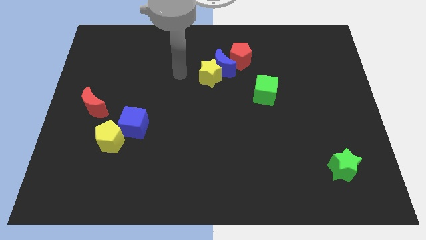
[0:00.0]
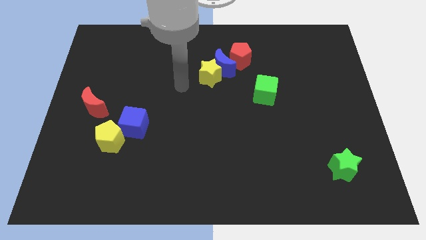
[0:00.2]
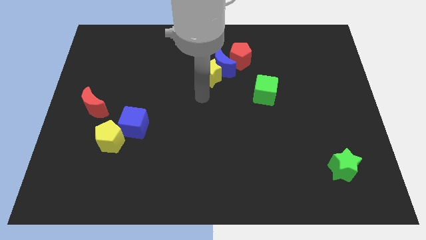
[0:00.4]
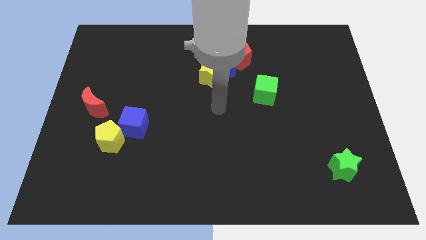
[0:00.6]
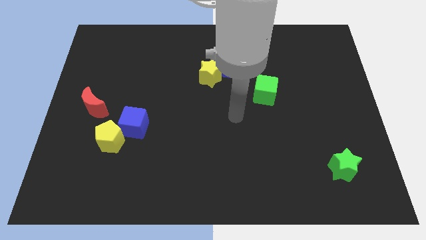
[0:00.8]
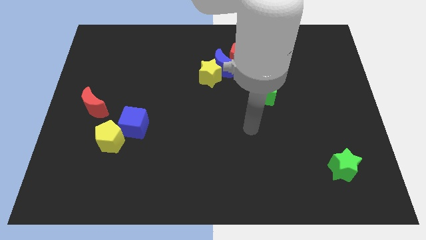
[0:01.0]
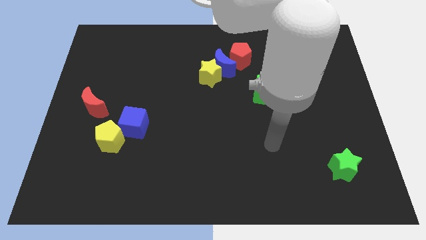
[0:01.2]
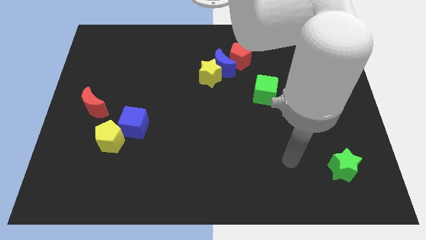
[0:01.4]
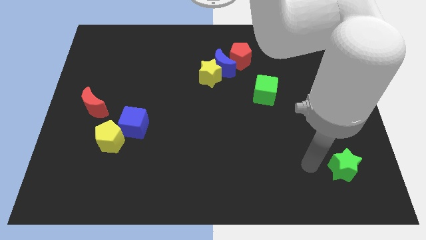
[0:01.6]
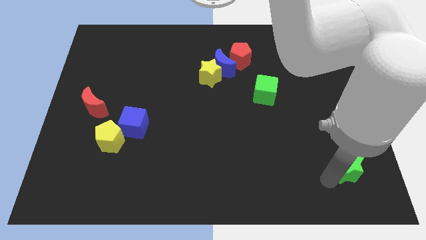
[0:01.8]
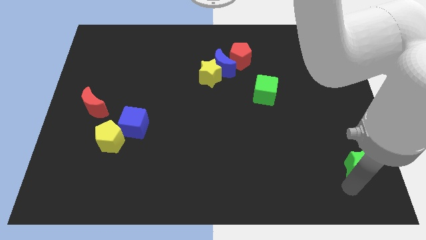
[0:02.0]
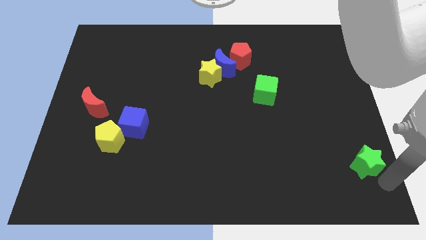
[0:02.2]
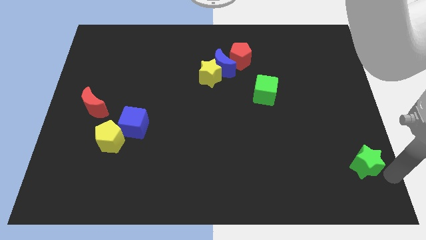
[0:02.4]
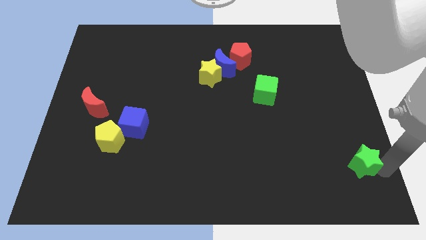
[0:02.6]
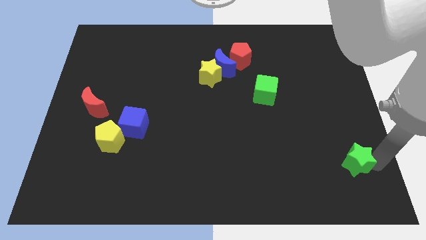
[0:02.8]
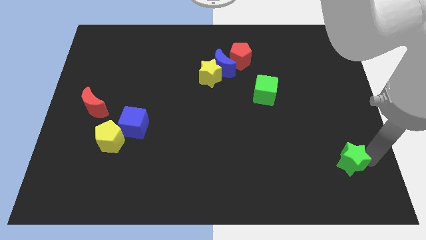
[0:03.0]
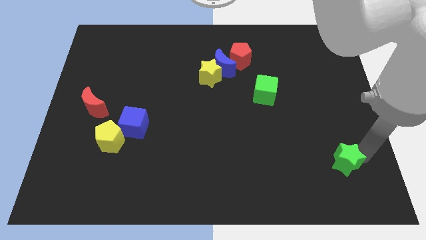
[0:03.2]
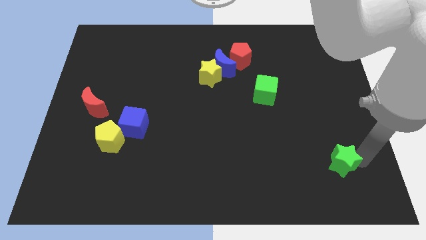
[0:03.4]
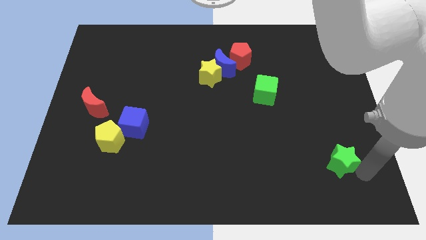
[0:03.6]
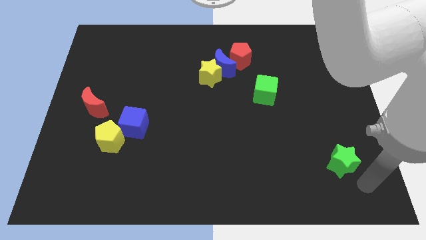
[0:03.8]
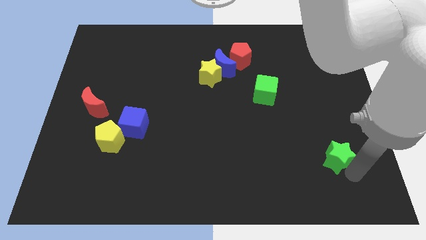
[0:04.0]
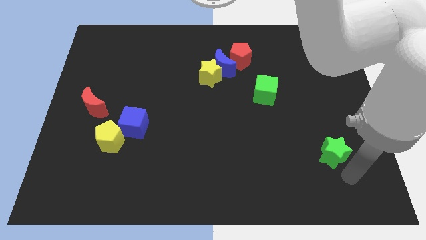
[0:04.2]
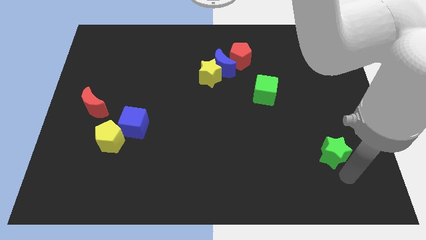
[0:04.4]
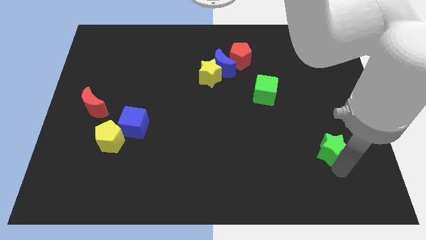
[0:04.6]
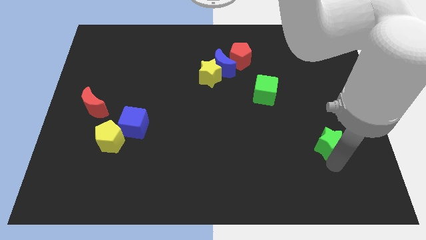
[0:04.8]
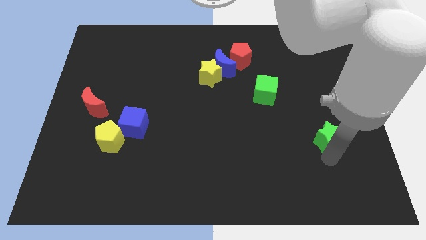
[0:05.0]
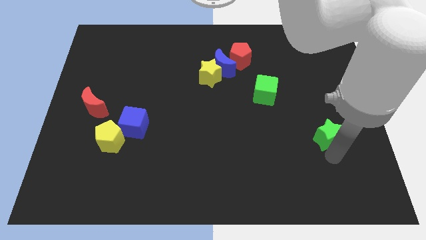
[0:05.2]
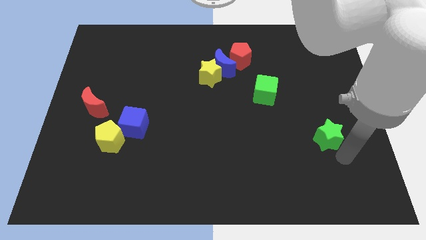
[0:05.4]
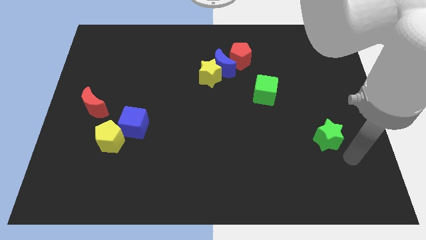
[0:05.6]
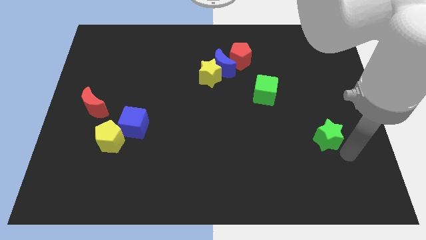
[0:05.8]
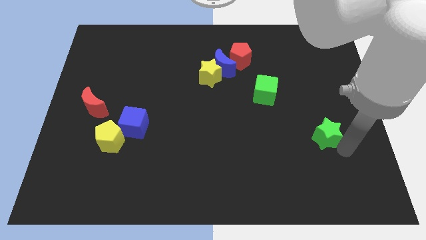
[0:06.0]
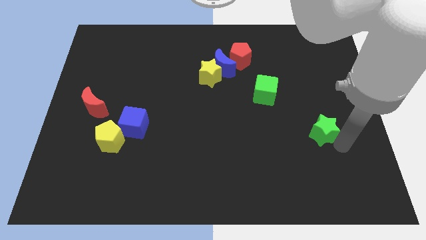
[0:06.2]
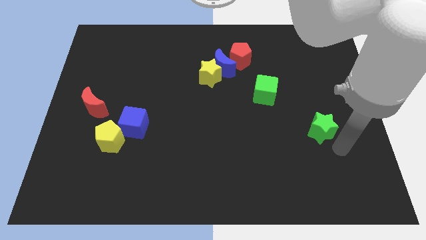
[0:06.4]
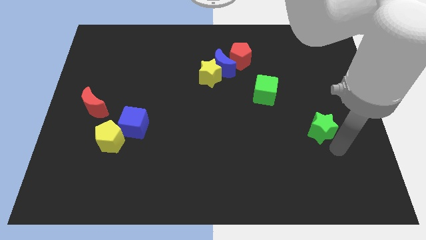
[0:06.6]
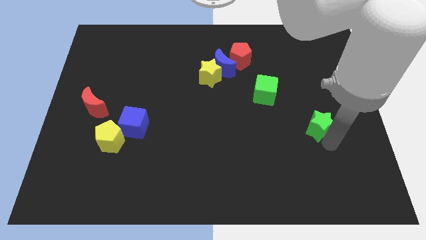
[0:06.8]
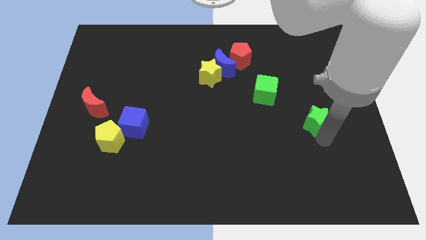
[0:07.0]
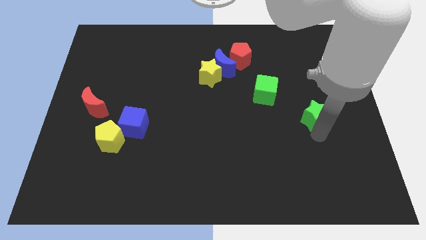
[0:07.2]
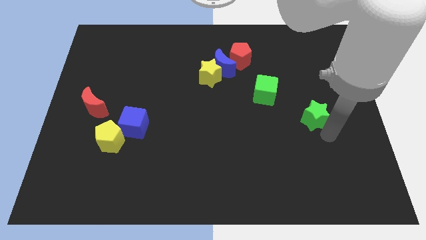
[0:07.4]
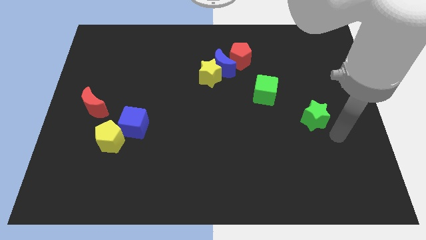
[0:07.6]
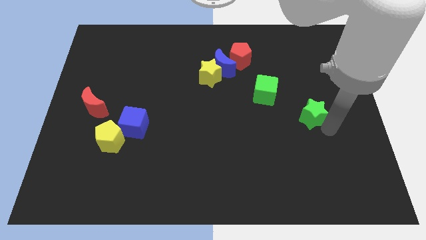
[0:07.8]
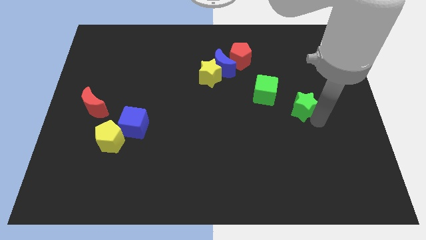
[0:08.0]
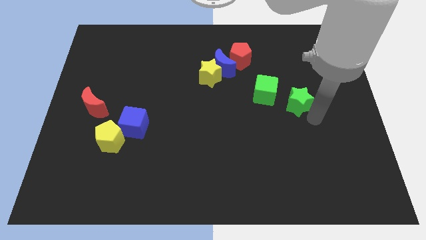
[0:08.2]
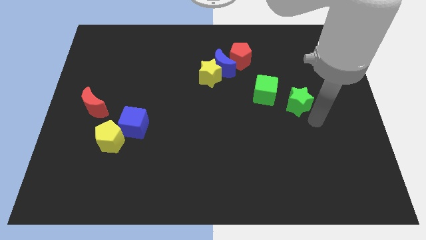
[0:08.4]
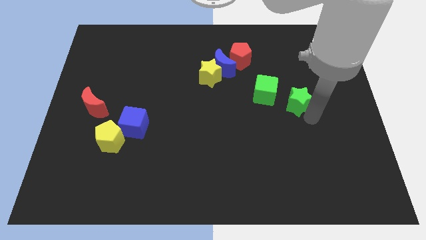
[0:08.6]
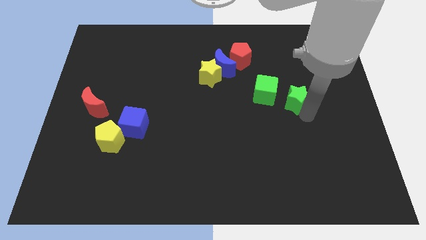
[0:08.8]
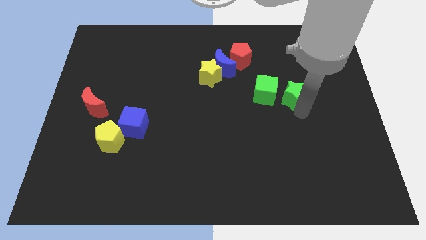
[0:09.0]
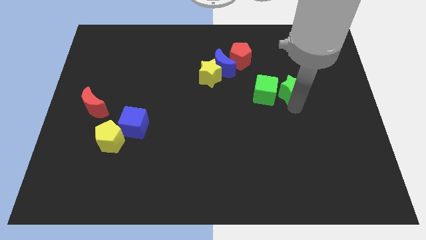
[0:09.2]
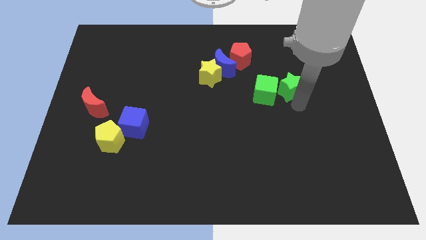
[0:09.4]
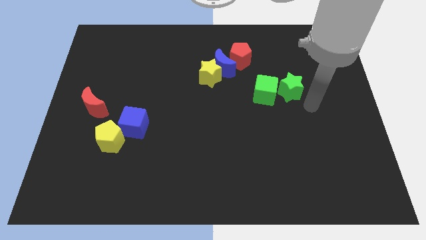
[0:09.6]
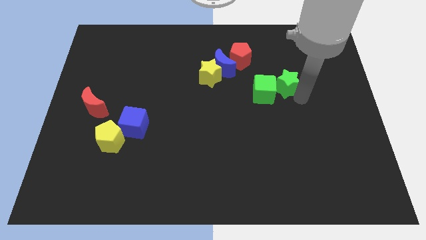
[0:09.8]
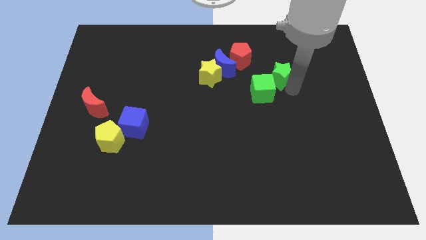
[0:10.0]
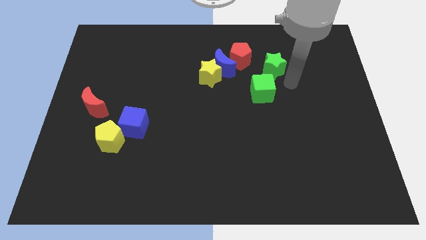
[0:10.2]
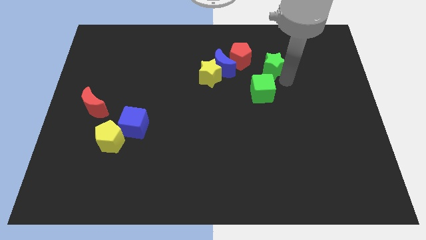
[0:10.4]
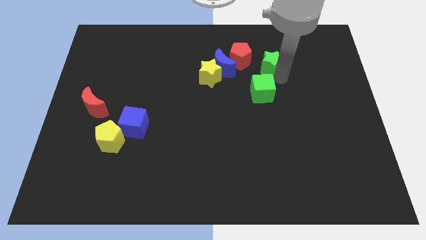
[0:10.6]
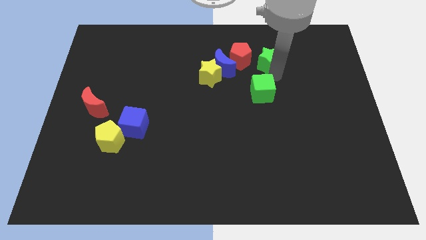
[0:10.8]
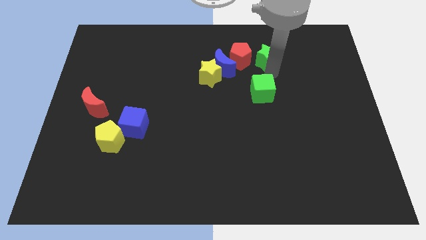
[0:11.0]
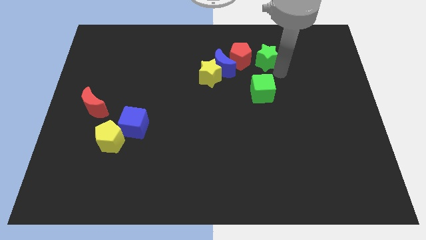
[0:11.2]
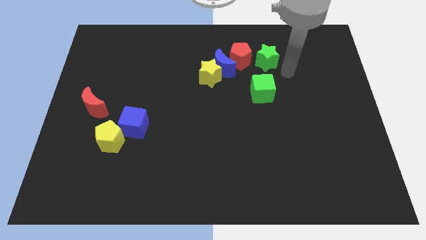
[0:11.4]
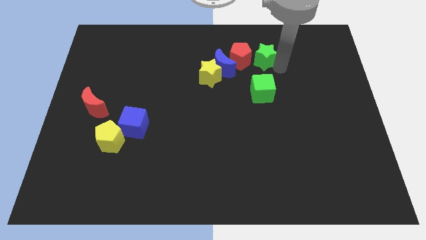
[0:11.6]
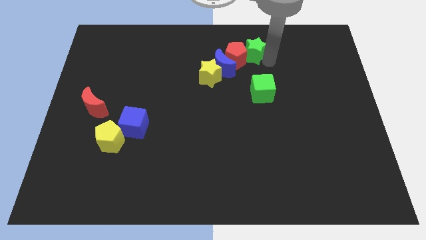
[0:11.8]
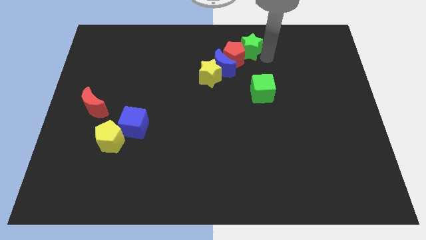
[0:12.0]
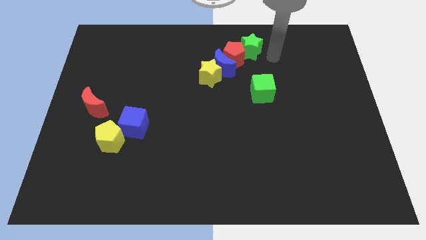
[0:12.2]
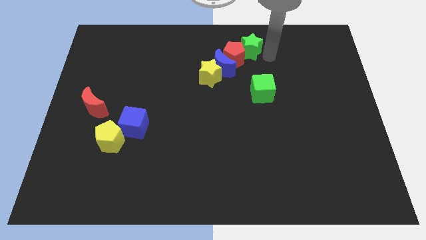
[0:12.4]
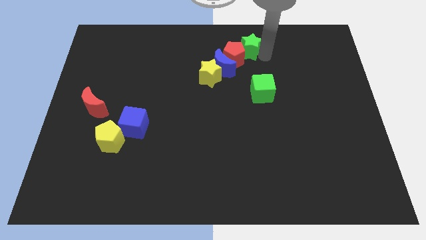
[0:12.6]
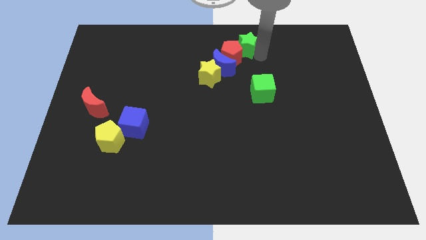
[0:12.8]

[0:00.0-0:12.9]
put the green star to the towards your base
